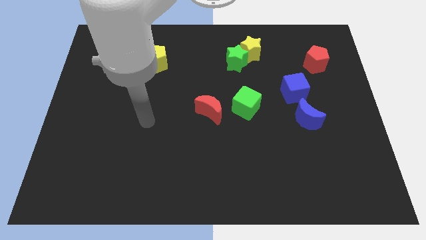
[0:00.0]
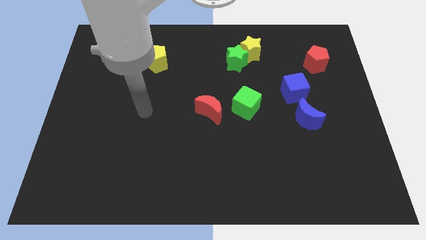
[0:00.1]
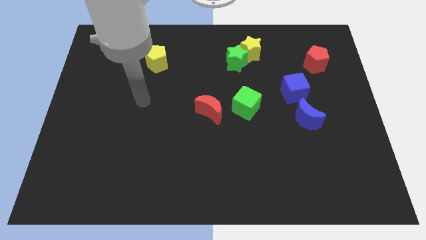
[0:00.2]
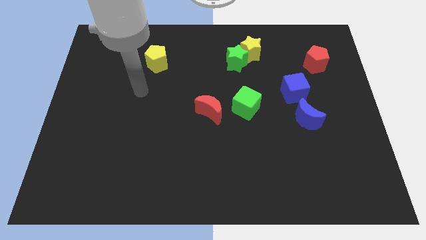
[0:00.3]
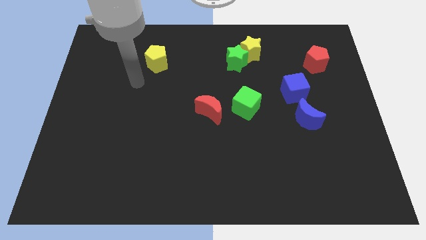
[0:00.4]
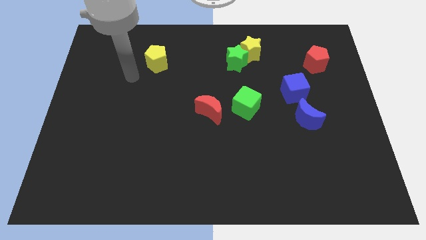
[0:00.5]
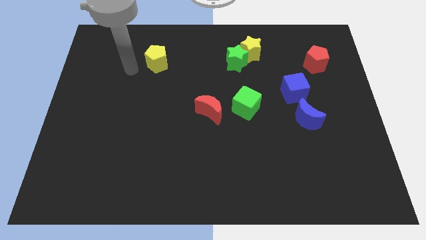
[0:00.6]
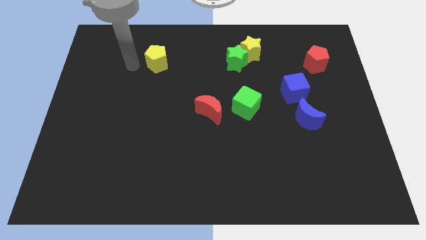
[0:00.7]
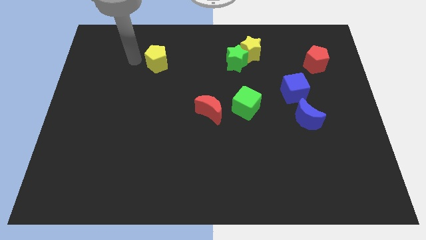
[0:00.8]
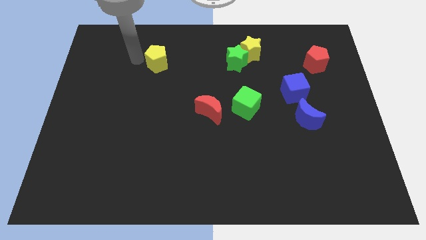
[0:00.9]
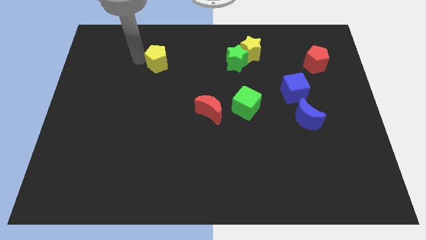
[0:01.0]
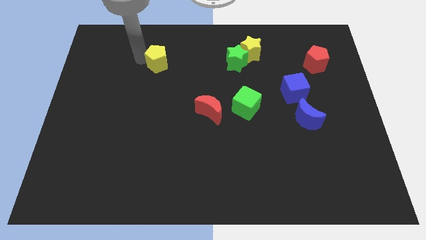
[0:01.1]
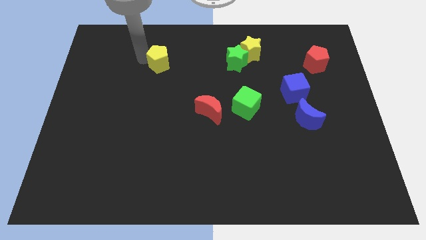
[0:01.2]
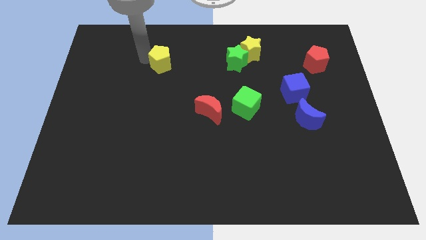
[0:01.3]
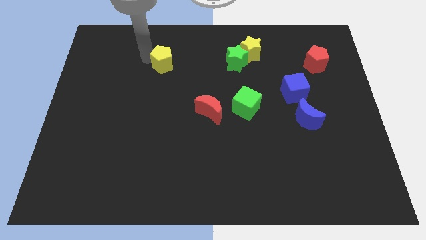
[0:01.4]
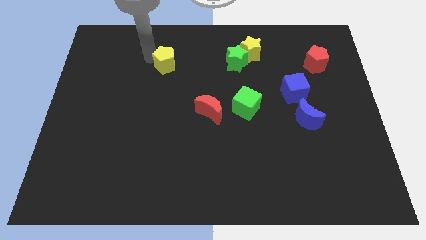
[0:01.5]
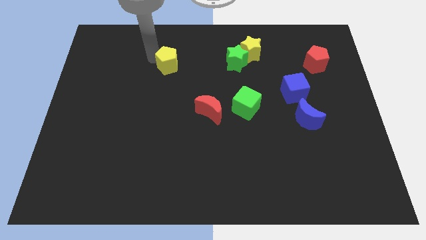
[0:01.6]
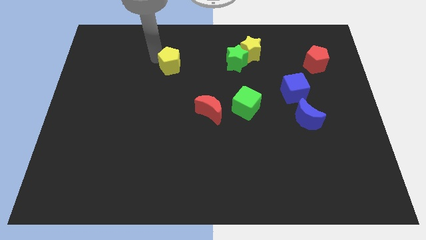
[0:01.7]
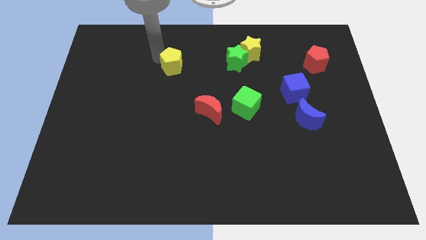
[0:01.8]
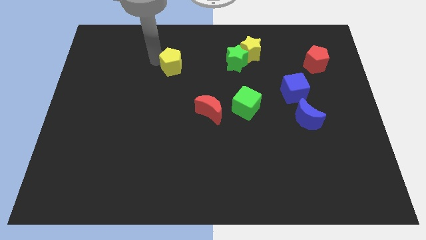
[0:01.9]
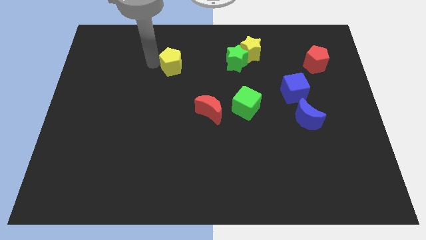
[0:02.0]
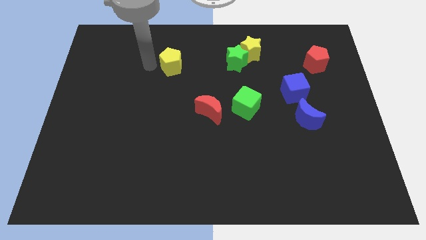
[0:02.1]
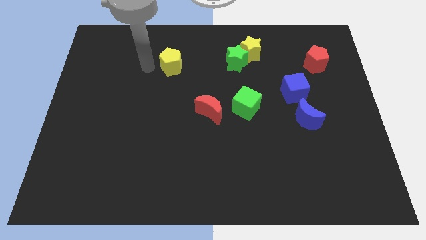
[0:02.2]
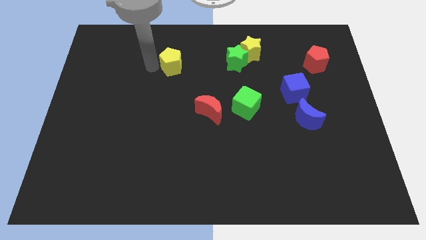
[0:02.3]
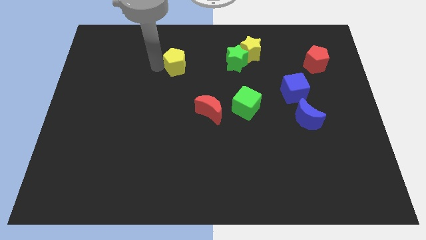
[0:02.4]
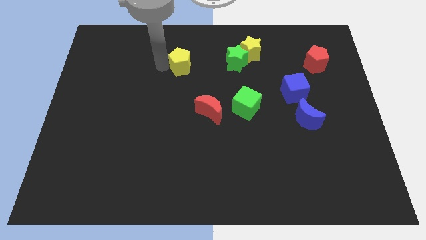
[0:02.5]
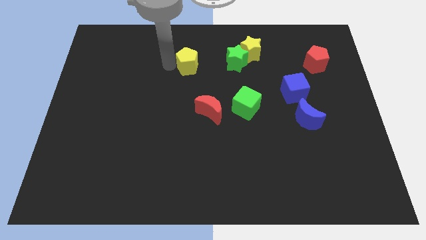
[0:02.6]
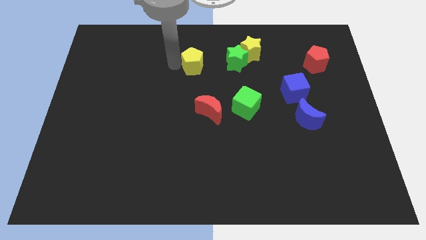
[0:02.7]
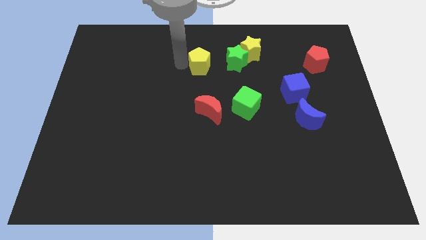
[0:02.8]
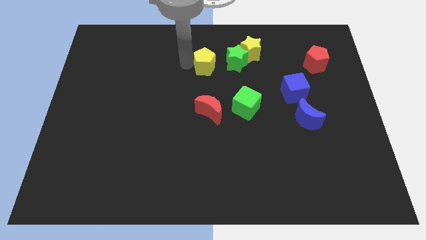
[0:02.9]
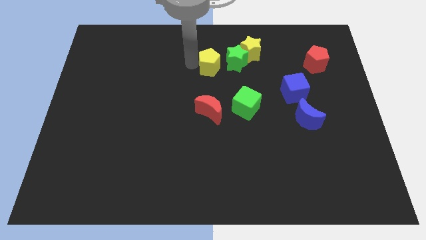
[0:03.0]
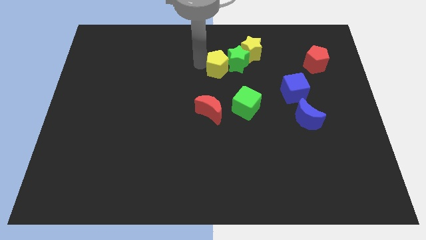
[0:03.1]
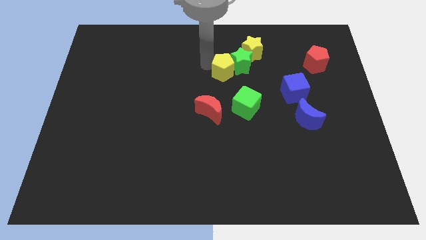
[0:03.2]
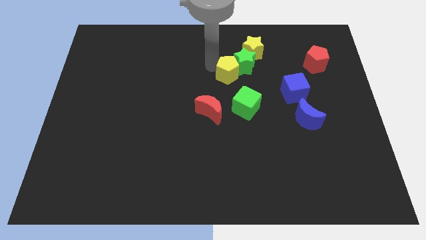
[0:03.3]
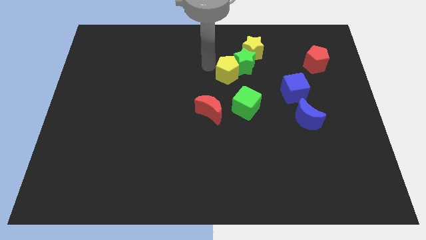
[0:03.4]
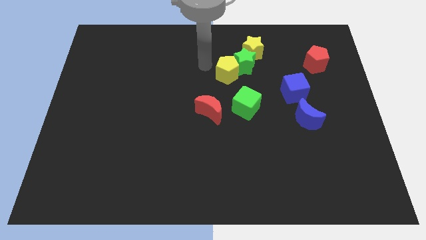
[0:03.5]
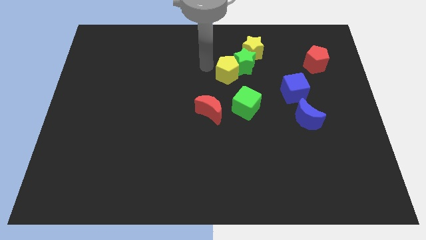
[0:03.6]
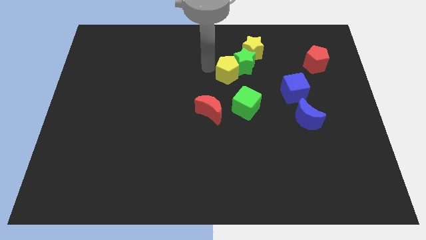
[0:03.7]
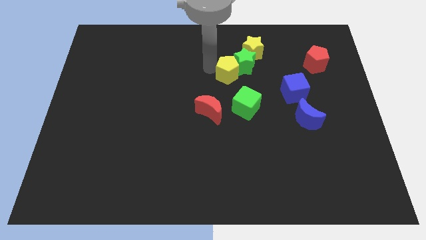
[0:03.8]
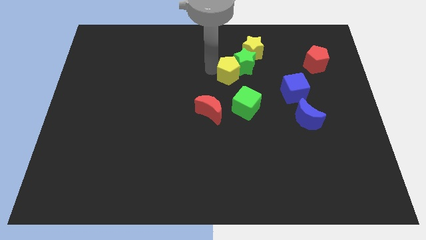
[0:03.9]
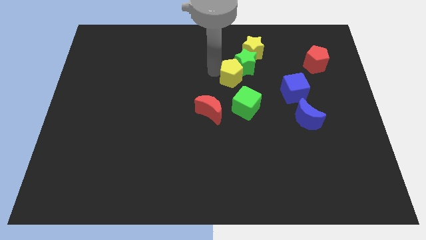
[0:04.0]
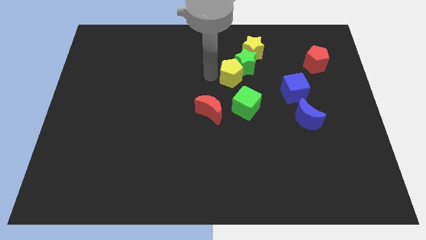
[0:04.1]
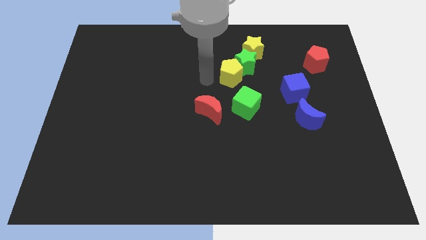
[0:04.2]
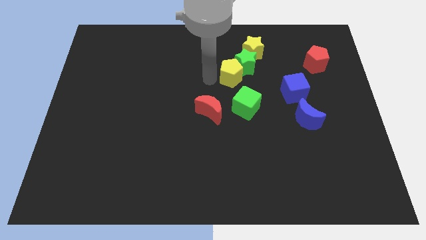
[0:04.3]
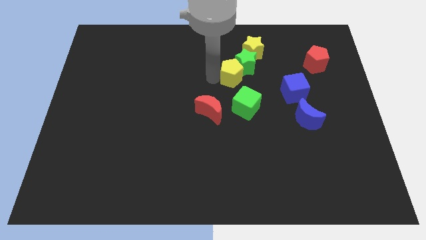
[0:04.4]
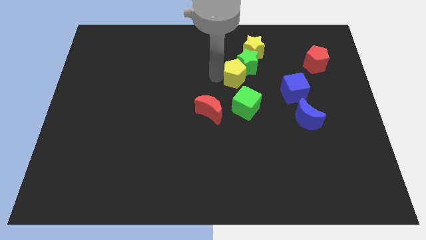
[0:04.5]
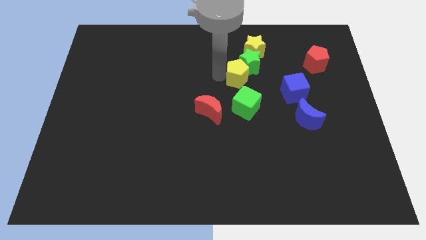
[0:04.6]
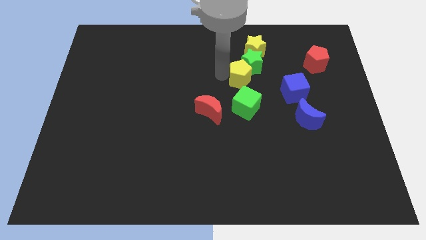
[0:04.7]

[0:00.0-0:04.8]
slide the yellow pentagon to the right

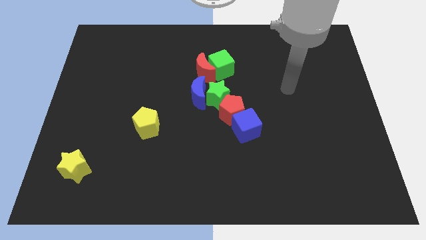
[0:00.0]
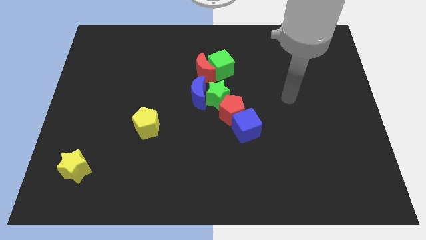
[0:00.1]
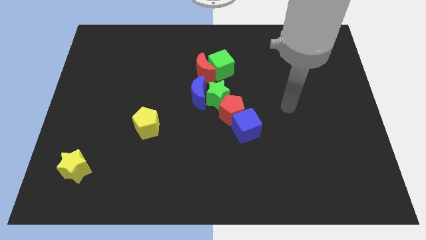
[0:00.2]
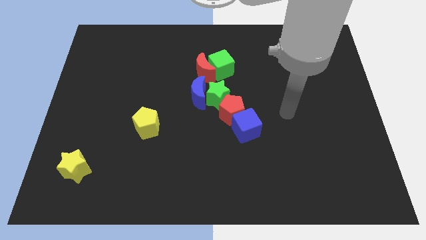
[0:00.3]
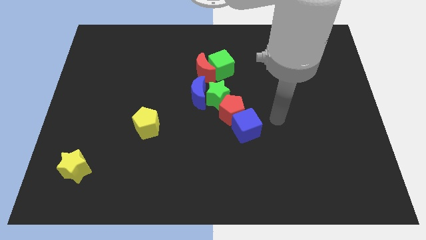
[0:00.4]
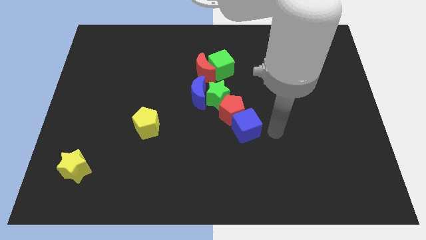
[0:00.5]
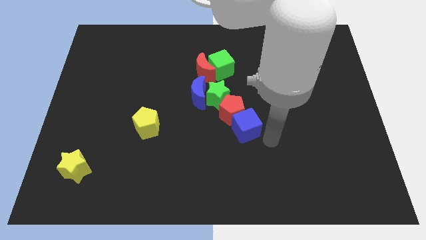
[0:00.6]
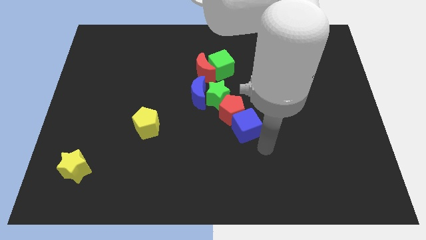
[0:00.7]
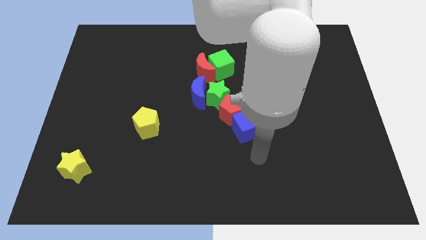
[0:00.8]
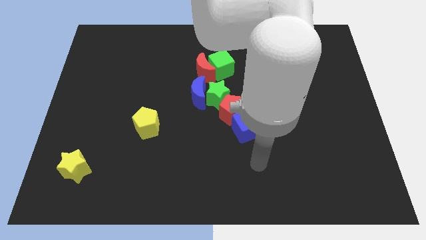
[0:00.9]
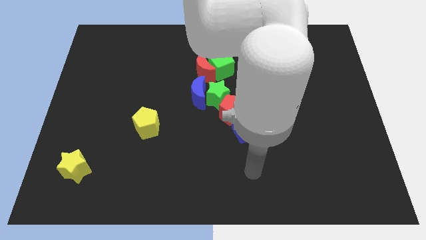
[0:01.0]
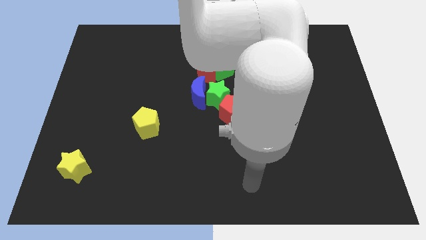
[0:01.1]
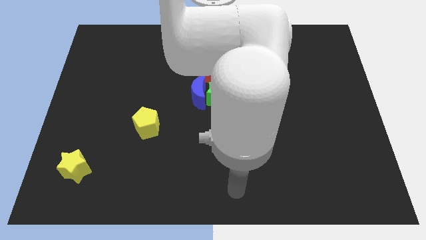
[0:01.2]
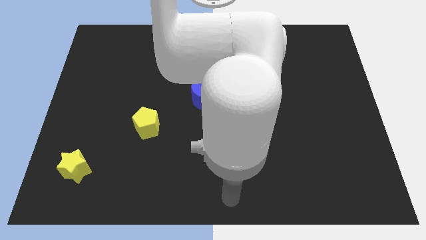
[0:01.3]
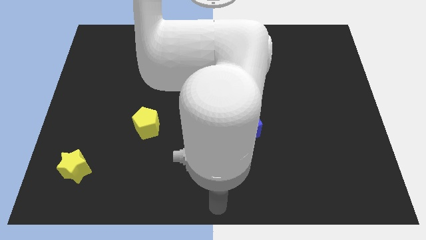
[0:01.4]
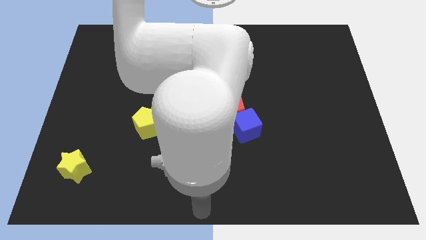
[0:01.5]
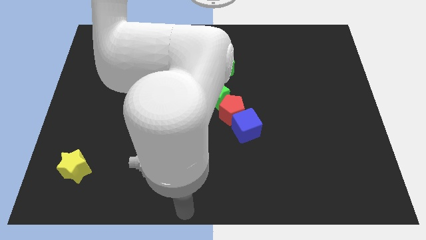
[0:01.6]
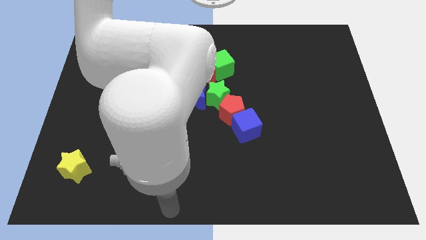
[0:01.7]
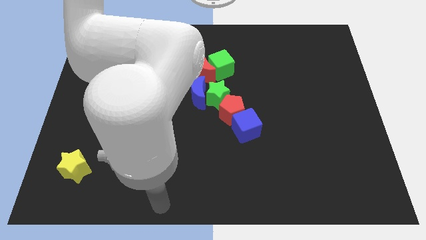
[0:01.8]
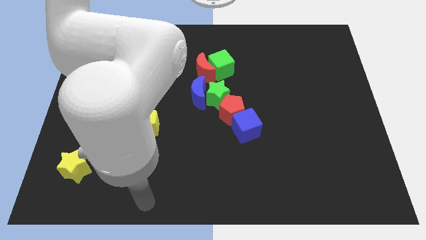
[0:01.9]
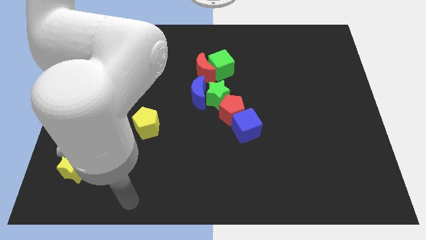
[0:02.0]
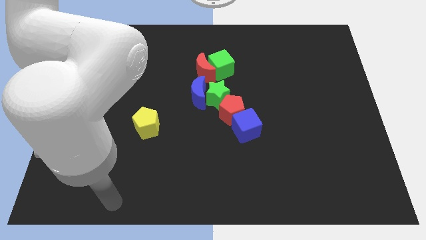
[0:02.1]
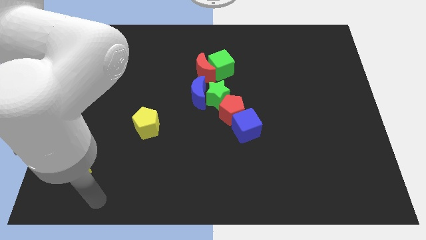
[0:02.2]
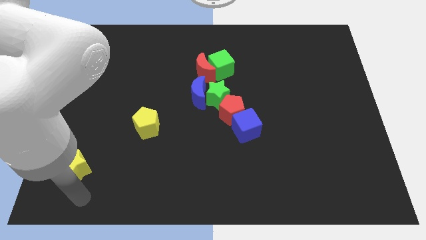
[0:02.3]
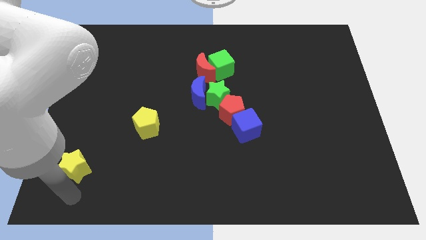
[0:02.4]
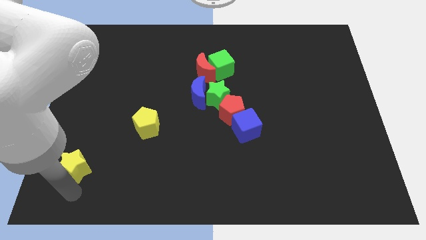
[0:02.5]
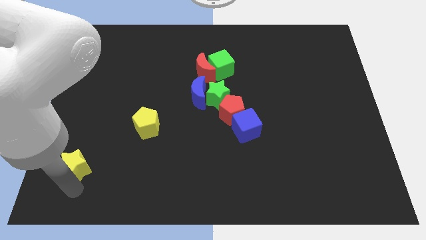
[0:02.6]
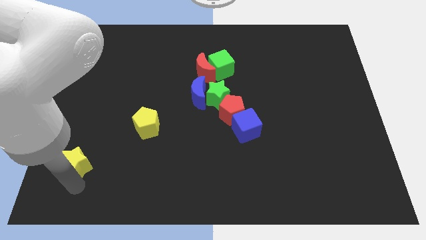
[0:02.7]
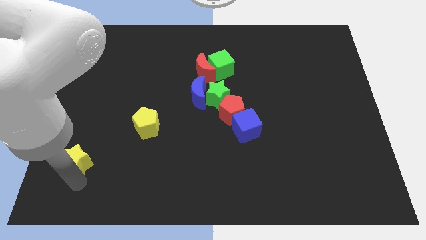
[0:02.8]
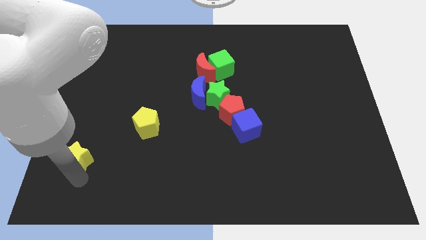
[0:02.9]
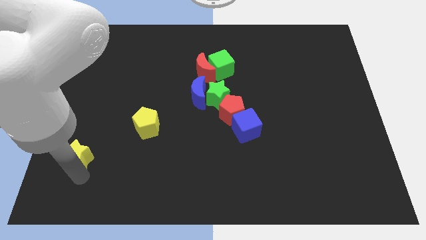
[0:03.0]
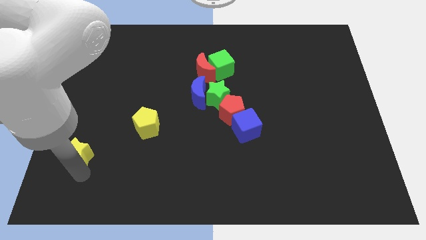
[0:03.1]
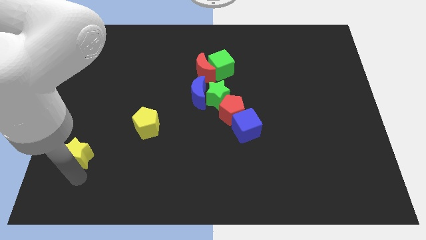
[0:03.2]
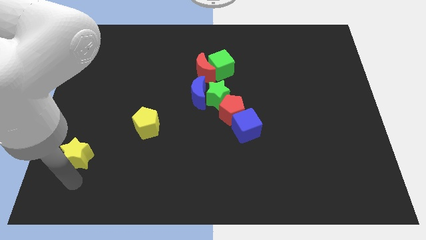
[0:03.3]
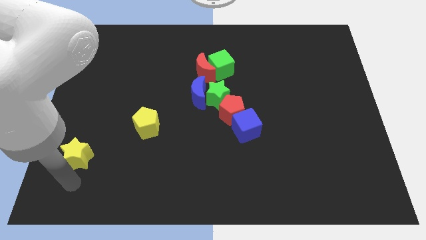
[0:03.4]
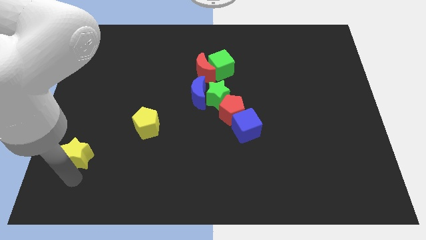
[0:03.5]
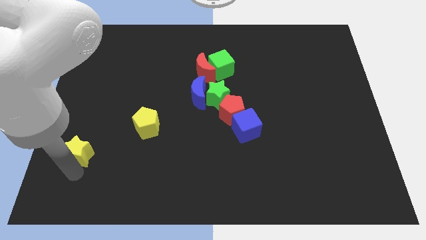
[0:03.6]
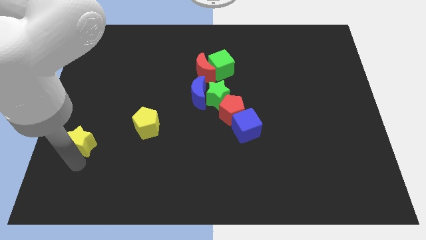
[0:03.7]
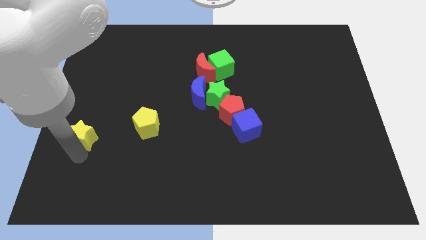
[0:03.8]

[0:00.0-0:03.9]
slide the yellow star a little bit up

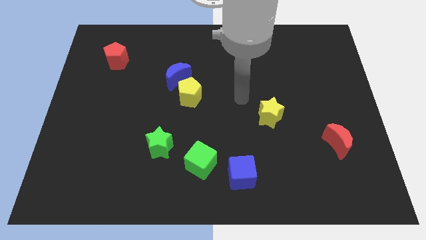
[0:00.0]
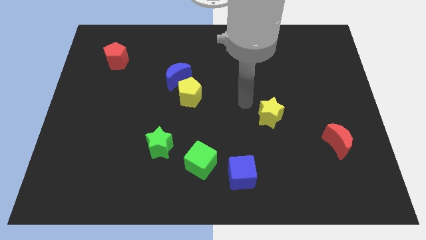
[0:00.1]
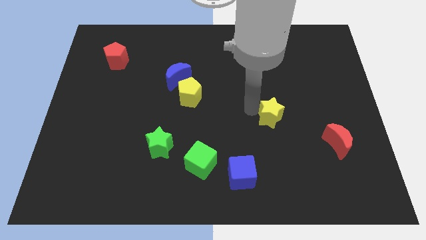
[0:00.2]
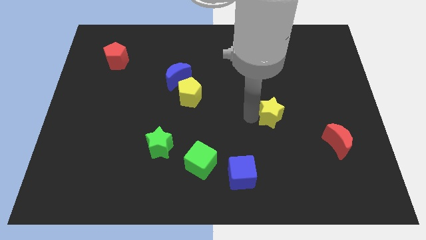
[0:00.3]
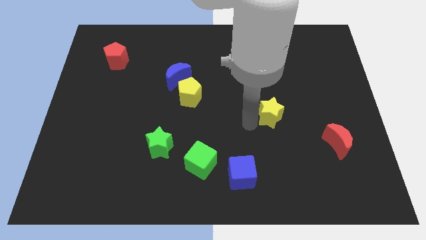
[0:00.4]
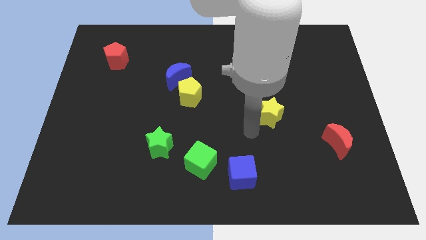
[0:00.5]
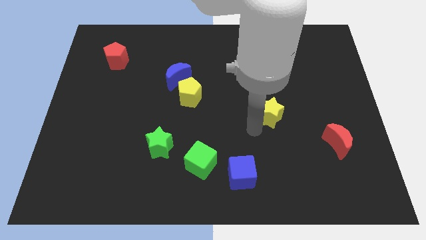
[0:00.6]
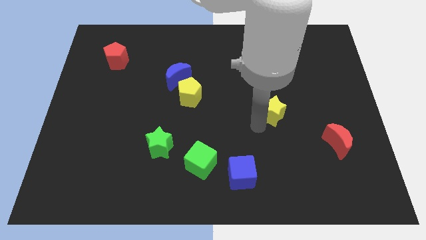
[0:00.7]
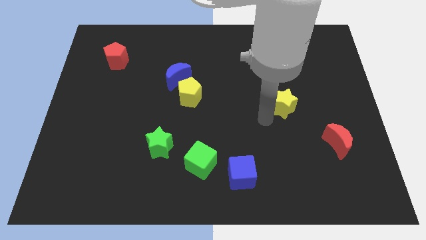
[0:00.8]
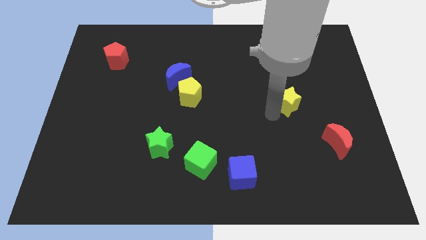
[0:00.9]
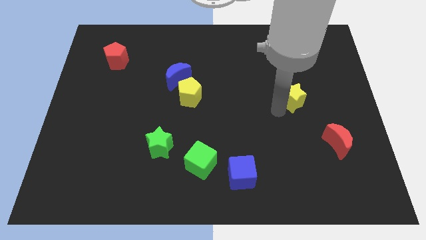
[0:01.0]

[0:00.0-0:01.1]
move the yellow star somewhat upwards and right diagonally
